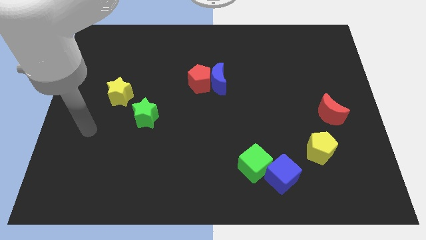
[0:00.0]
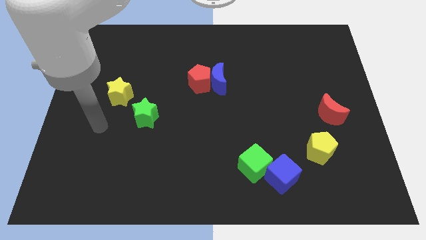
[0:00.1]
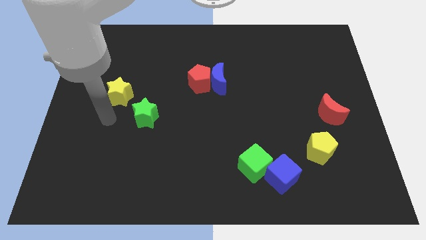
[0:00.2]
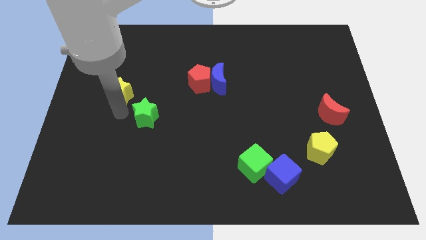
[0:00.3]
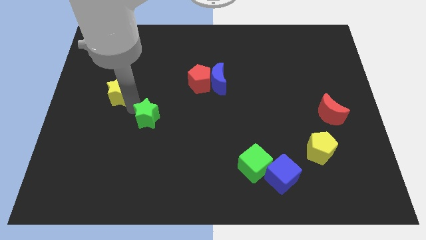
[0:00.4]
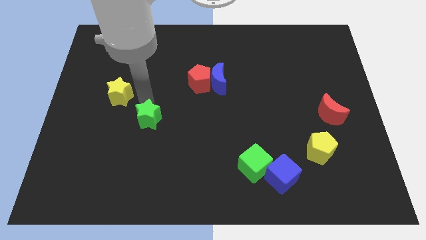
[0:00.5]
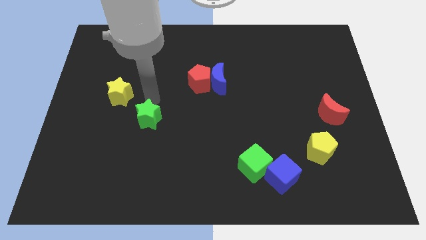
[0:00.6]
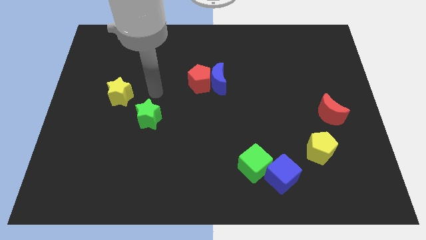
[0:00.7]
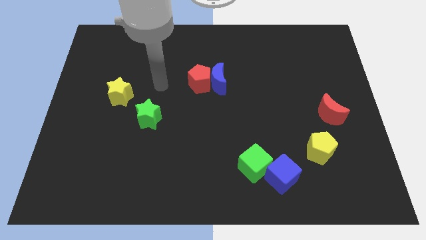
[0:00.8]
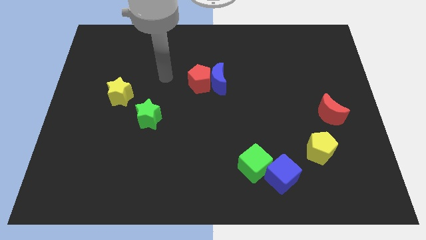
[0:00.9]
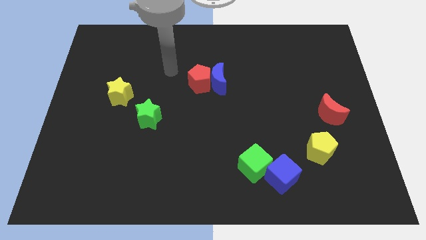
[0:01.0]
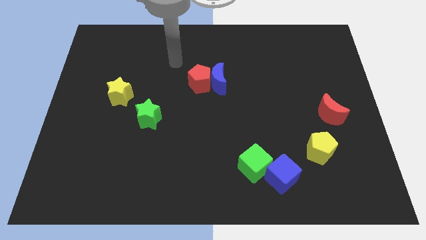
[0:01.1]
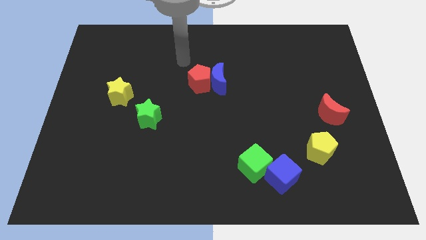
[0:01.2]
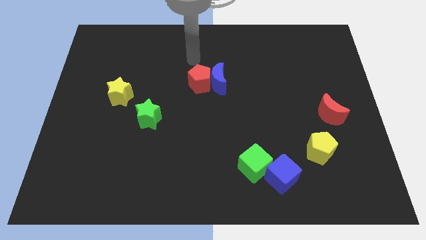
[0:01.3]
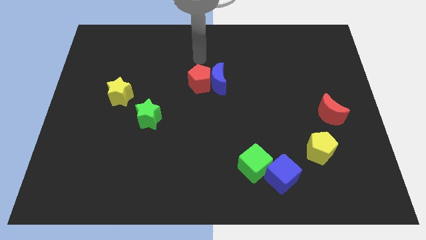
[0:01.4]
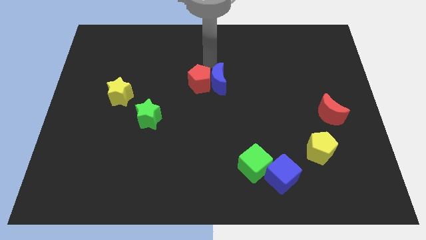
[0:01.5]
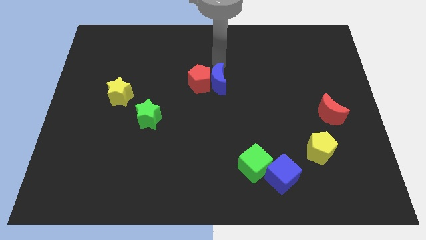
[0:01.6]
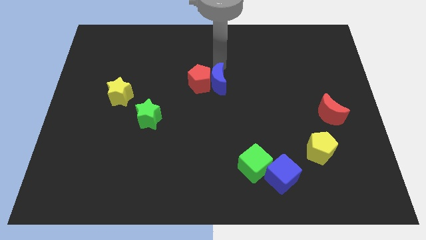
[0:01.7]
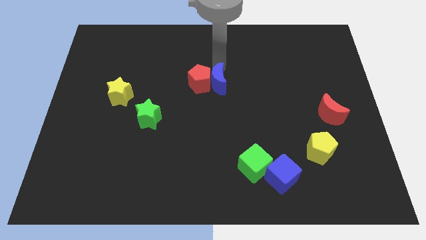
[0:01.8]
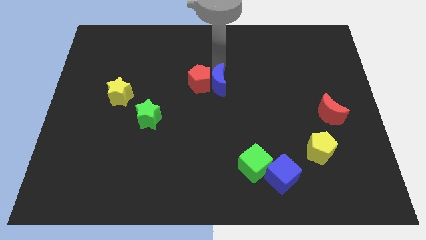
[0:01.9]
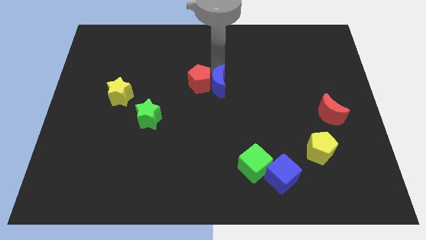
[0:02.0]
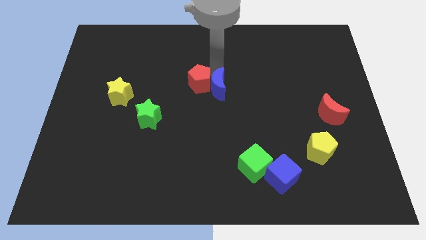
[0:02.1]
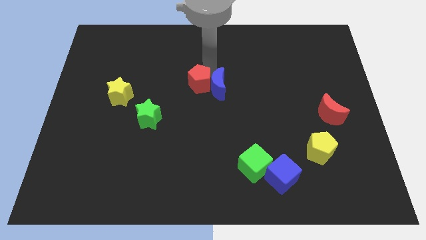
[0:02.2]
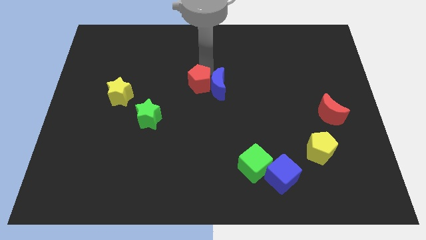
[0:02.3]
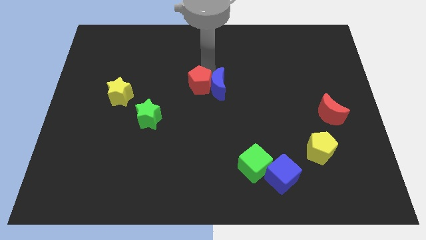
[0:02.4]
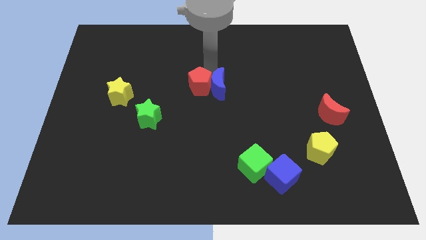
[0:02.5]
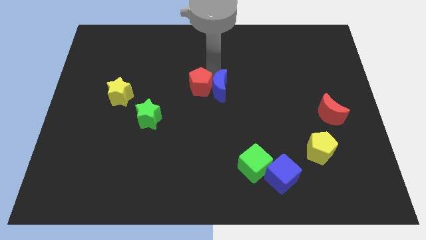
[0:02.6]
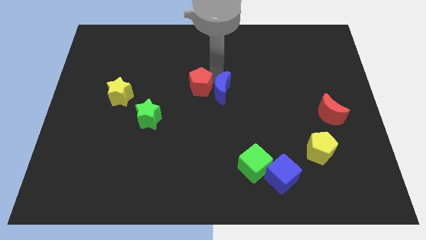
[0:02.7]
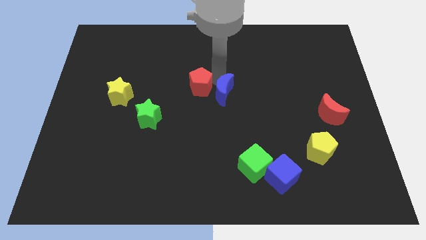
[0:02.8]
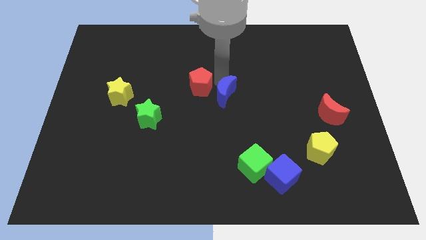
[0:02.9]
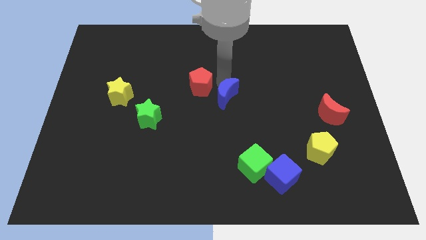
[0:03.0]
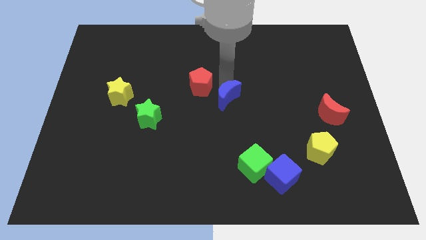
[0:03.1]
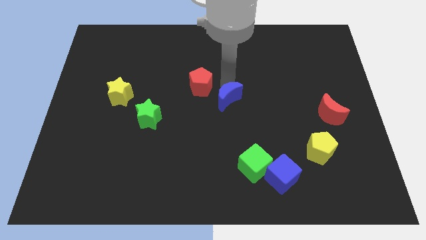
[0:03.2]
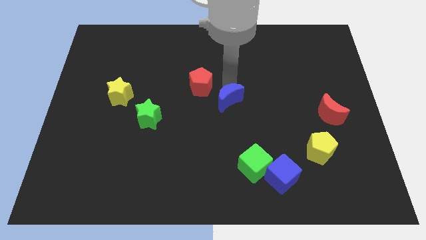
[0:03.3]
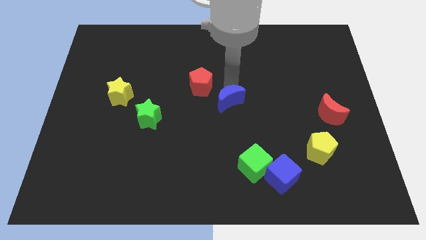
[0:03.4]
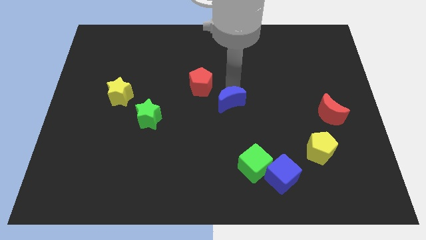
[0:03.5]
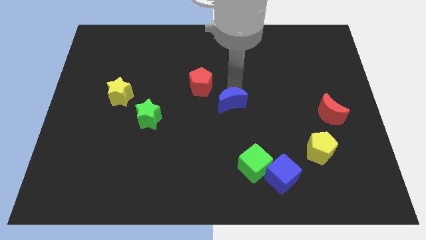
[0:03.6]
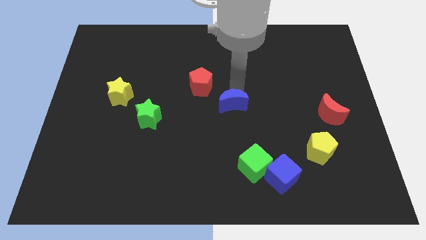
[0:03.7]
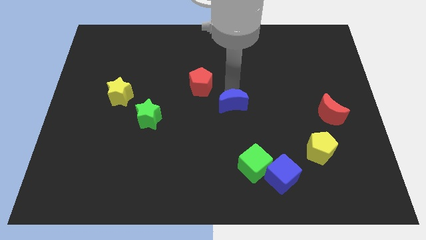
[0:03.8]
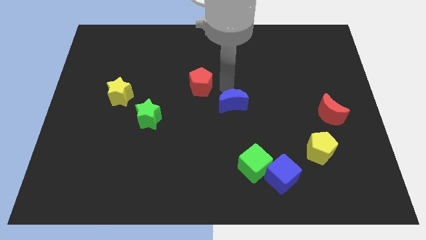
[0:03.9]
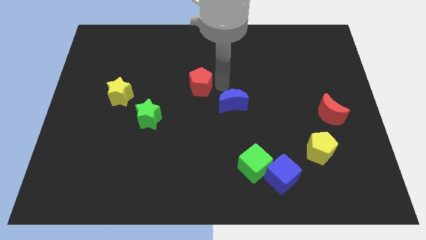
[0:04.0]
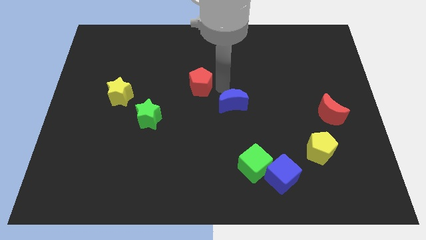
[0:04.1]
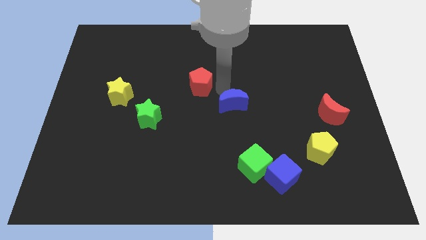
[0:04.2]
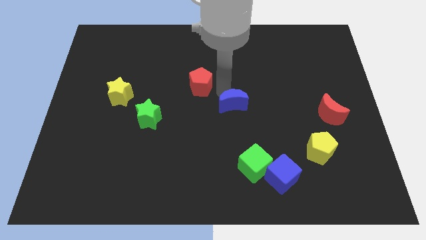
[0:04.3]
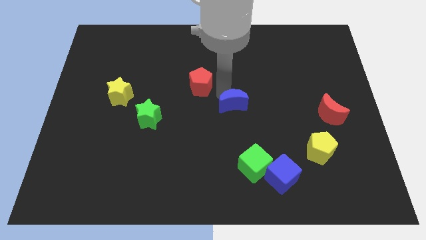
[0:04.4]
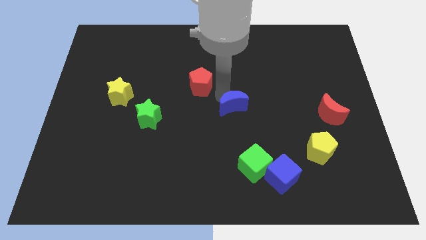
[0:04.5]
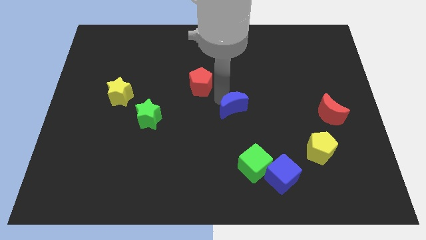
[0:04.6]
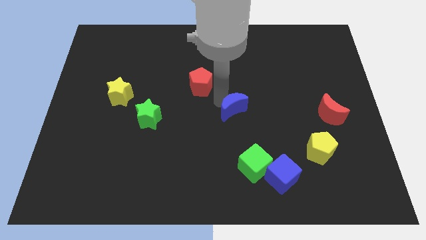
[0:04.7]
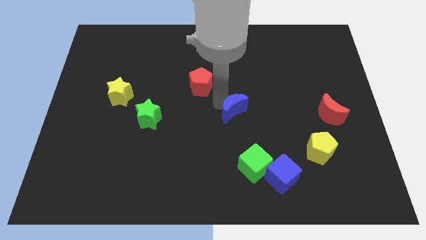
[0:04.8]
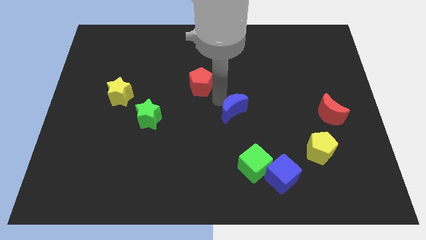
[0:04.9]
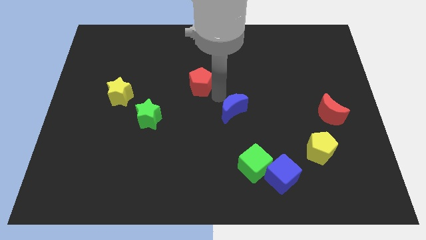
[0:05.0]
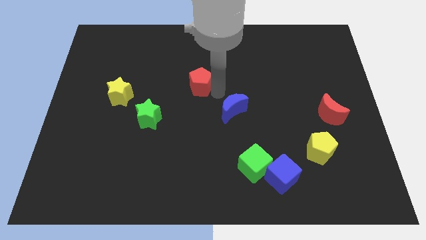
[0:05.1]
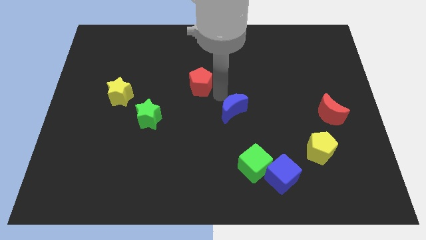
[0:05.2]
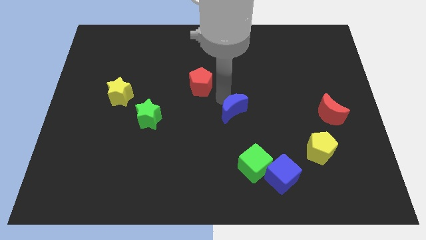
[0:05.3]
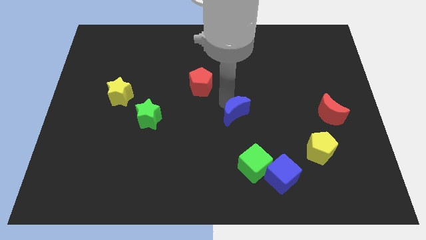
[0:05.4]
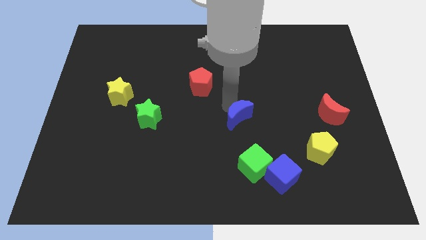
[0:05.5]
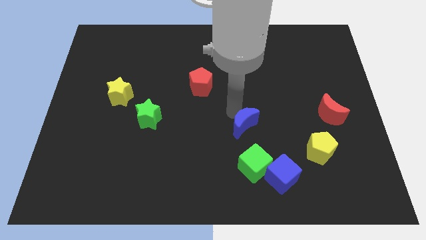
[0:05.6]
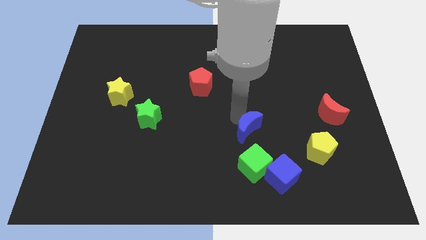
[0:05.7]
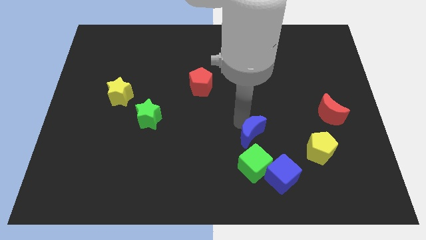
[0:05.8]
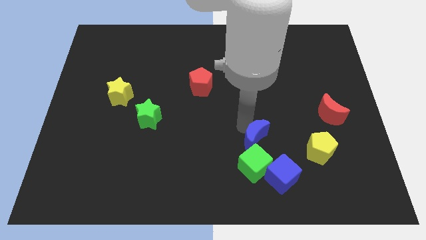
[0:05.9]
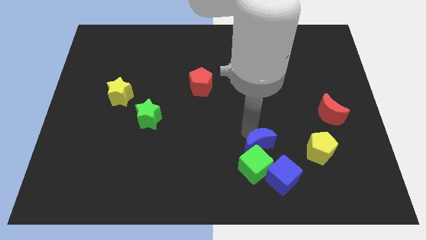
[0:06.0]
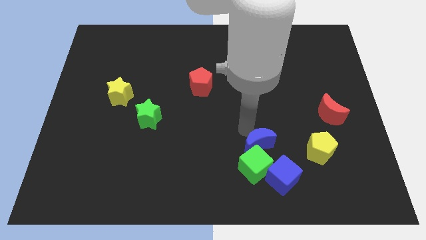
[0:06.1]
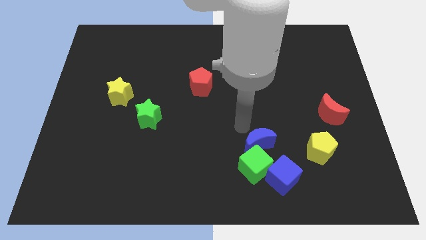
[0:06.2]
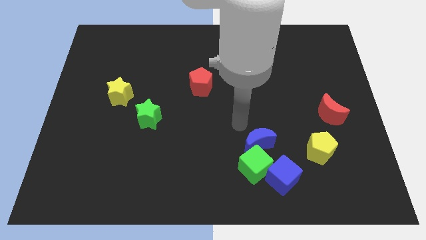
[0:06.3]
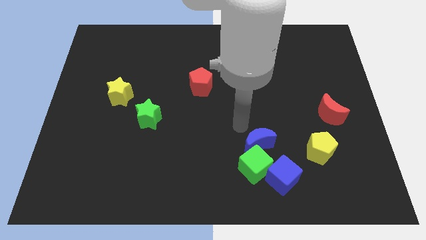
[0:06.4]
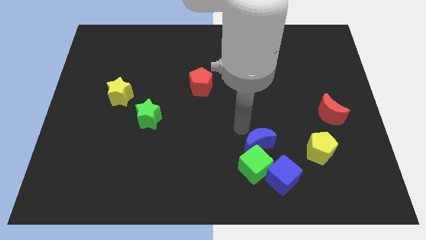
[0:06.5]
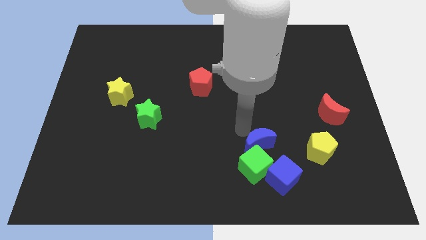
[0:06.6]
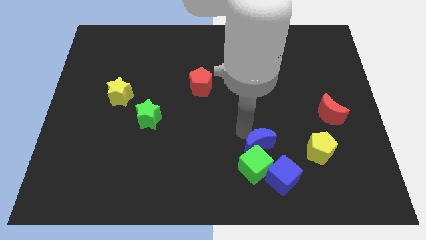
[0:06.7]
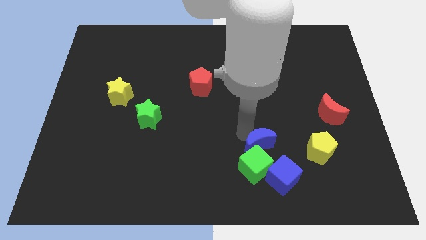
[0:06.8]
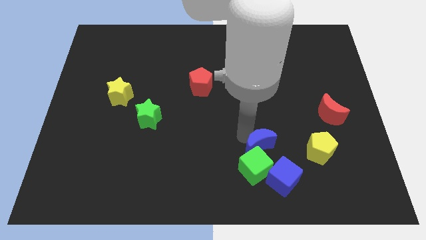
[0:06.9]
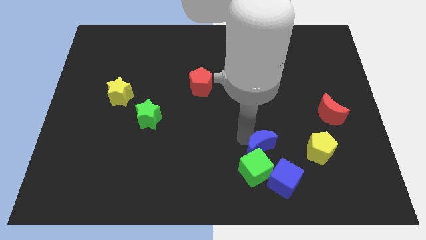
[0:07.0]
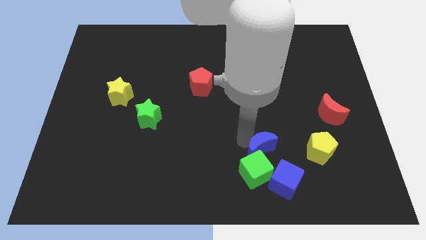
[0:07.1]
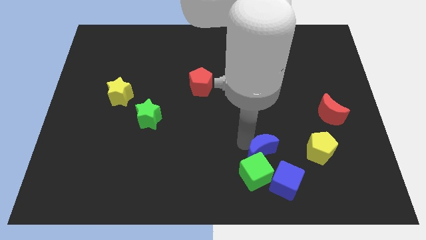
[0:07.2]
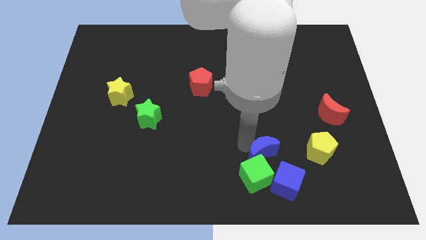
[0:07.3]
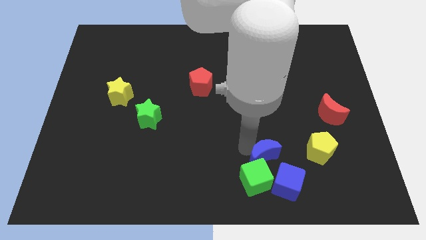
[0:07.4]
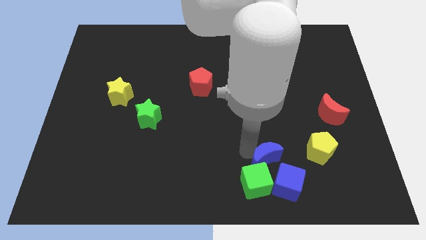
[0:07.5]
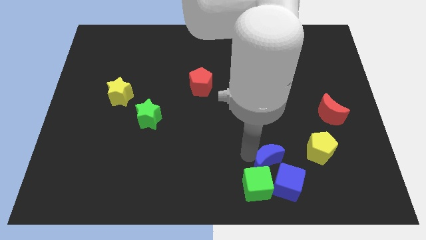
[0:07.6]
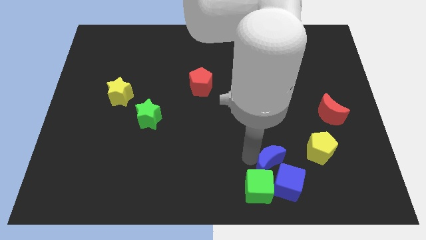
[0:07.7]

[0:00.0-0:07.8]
push the blue moon close to the blue cube
